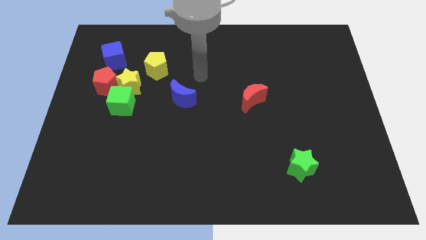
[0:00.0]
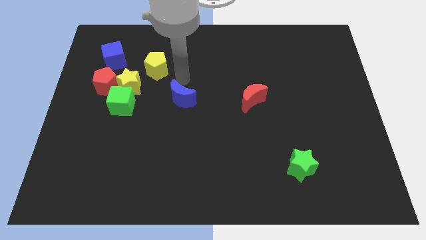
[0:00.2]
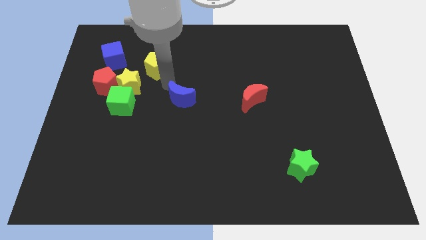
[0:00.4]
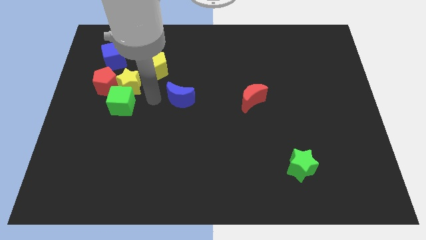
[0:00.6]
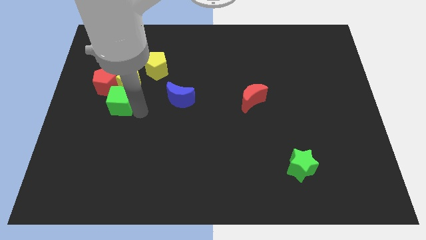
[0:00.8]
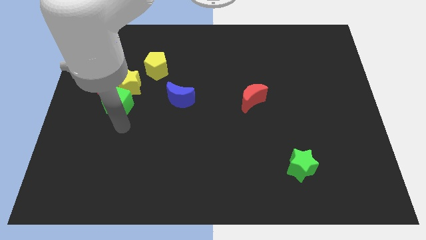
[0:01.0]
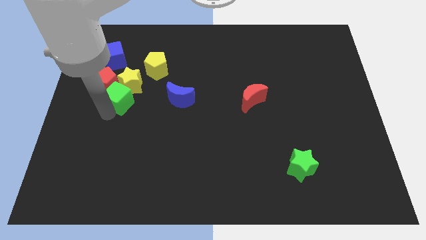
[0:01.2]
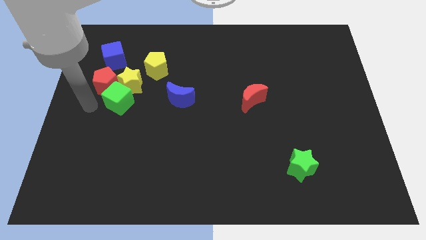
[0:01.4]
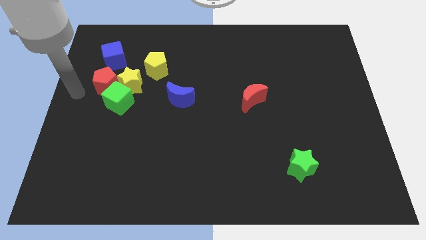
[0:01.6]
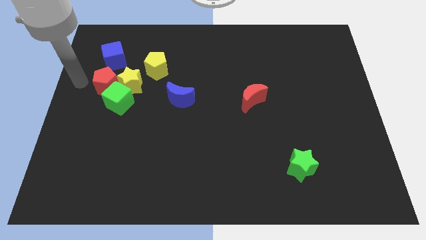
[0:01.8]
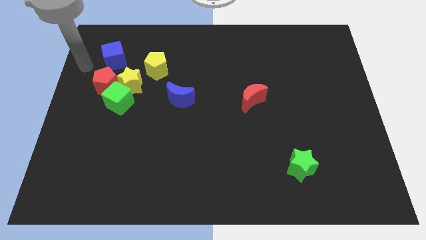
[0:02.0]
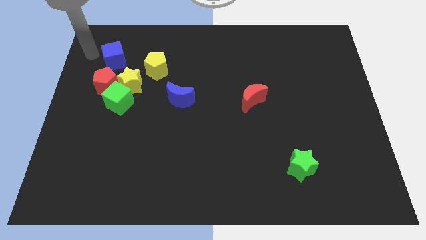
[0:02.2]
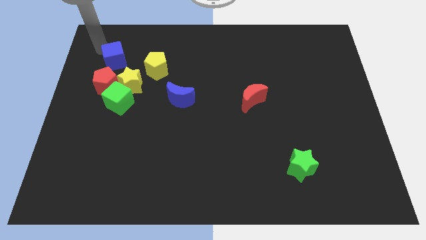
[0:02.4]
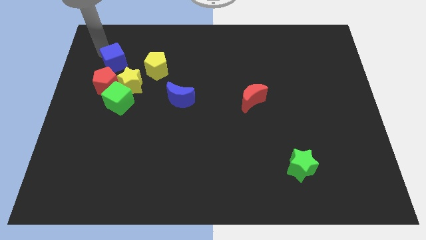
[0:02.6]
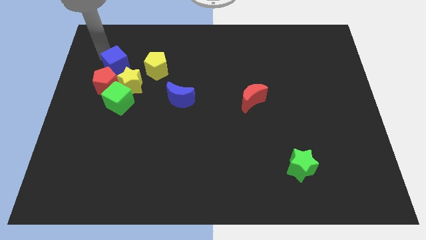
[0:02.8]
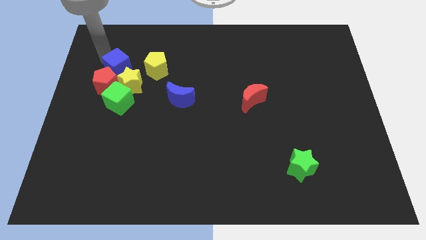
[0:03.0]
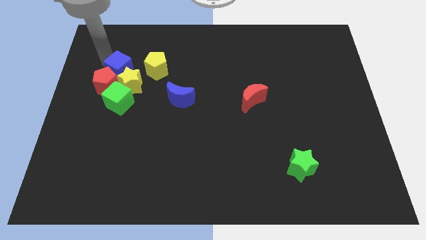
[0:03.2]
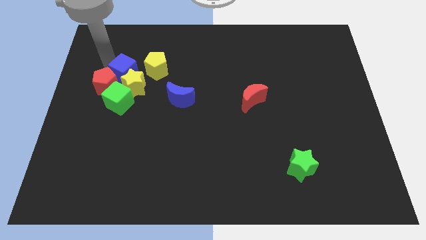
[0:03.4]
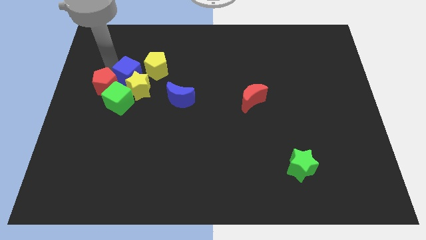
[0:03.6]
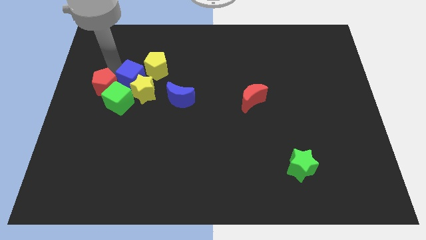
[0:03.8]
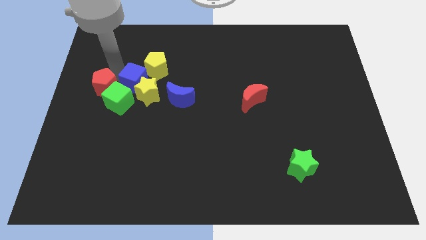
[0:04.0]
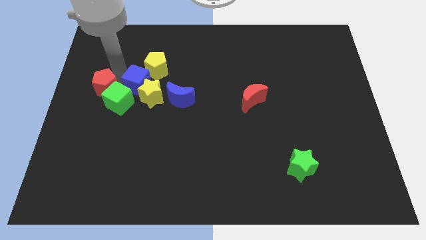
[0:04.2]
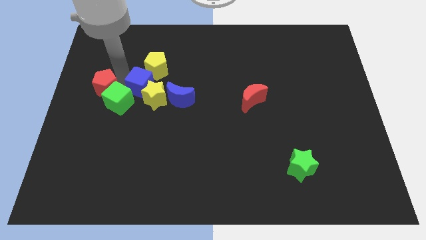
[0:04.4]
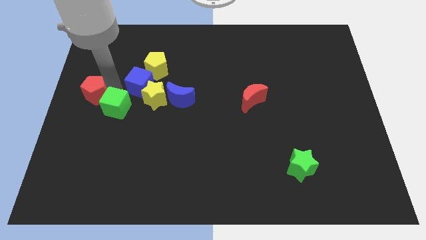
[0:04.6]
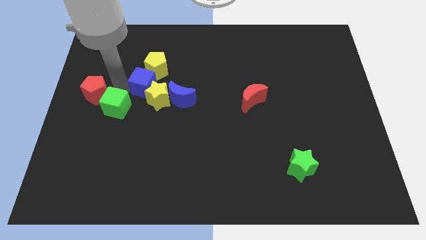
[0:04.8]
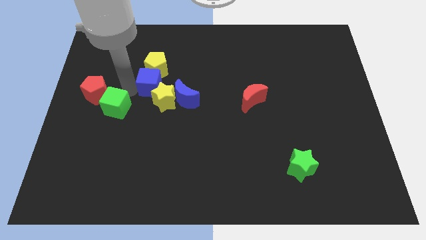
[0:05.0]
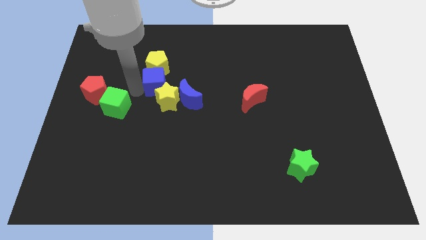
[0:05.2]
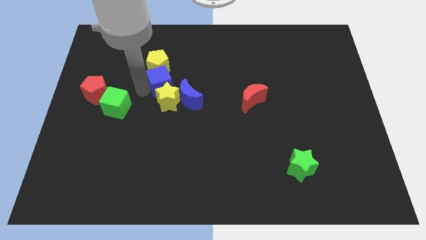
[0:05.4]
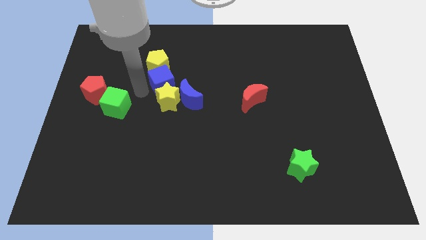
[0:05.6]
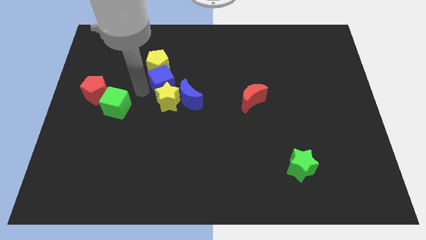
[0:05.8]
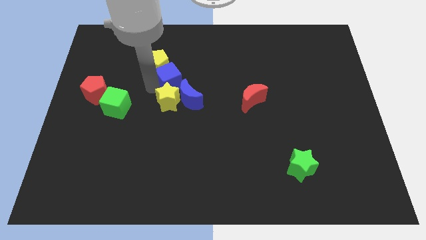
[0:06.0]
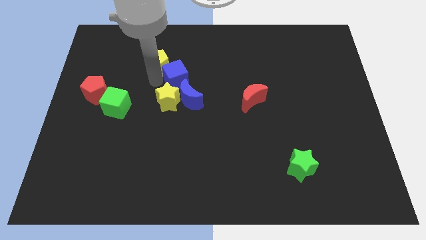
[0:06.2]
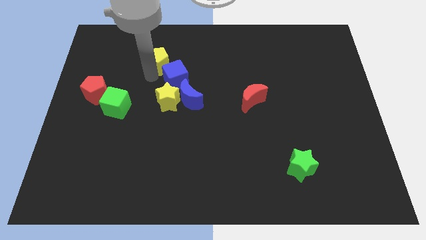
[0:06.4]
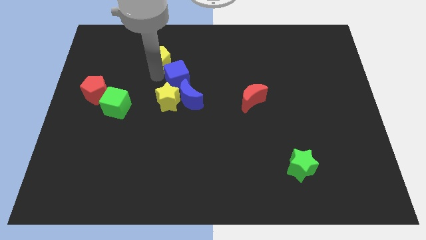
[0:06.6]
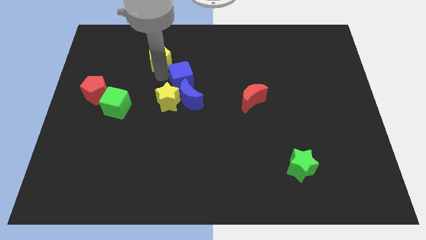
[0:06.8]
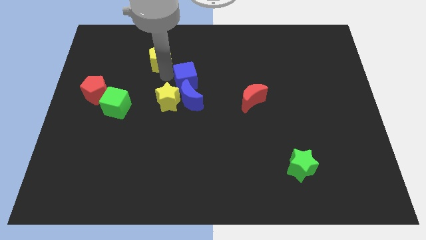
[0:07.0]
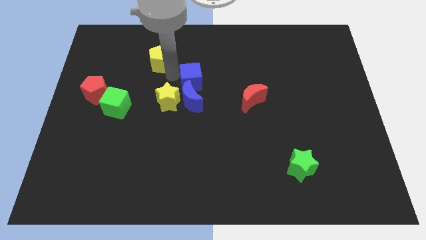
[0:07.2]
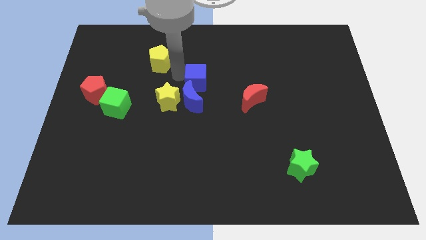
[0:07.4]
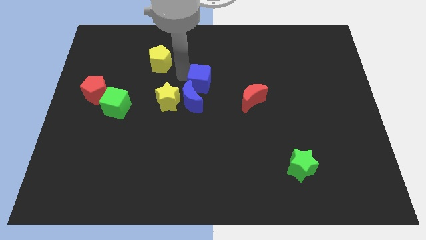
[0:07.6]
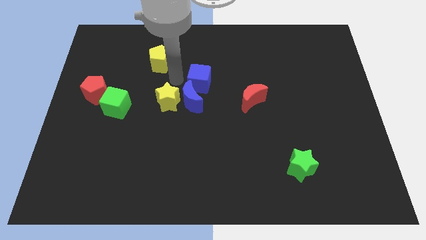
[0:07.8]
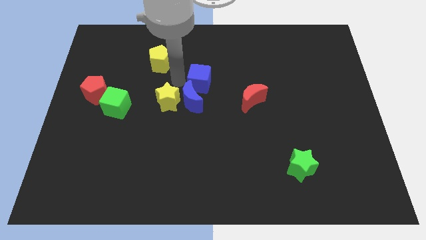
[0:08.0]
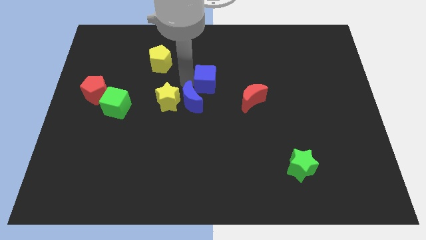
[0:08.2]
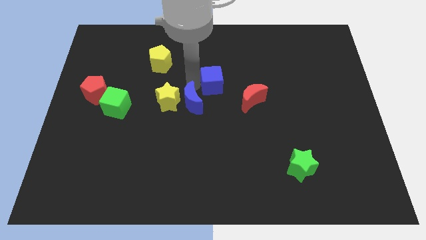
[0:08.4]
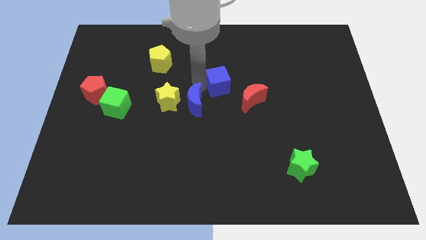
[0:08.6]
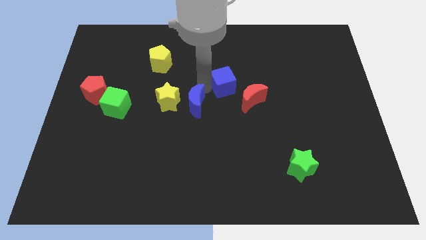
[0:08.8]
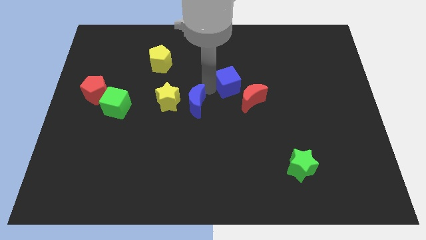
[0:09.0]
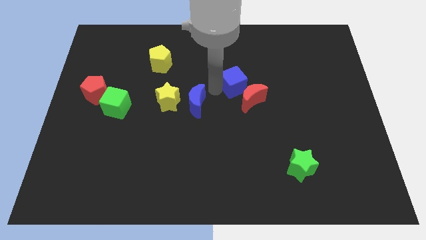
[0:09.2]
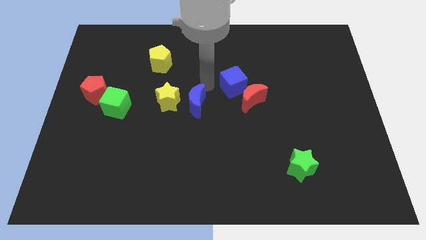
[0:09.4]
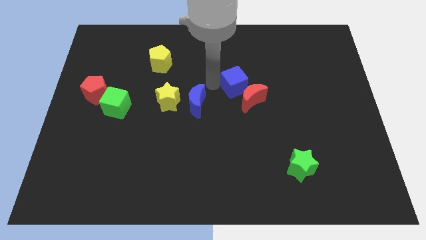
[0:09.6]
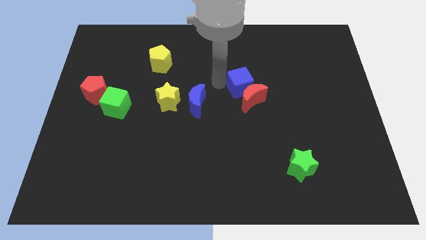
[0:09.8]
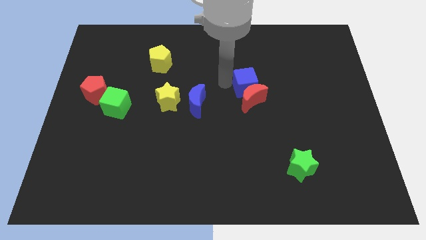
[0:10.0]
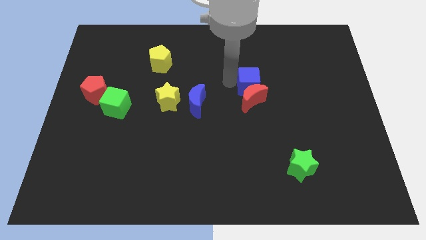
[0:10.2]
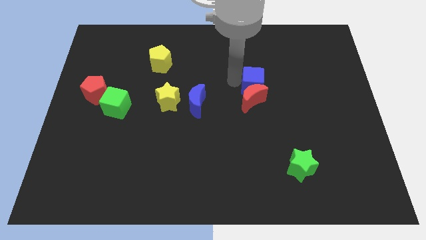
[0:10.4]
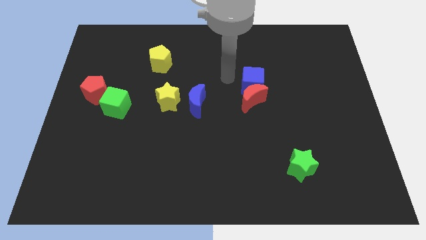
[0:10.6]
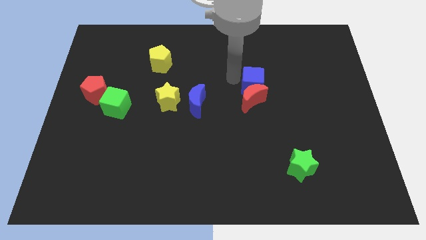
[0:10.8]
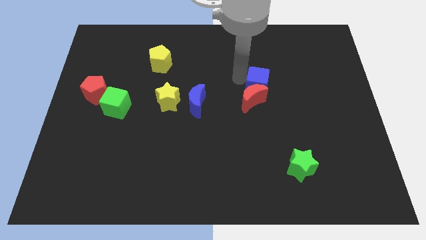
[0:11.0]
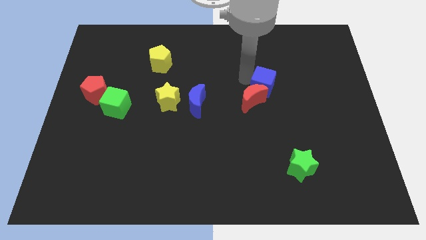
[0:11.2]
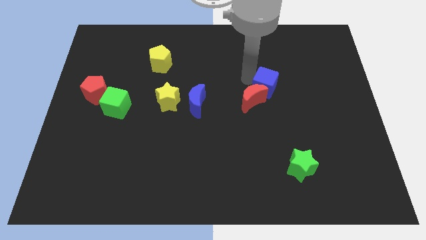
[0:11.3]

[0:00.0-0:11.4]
push the blue cube just right of the red moon
